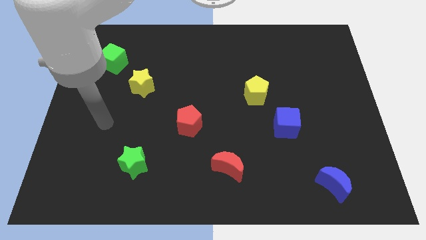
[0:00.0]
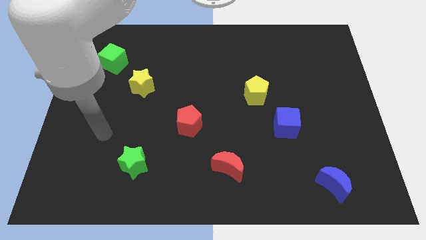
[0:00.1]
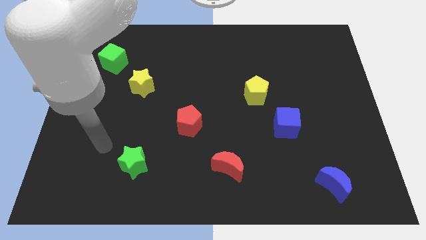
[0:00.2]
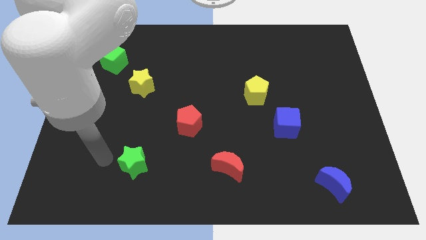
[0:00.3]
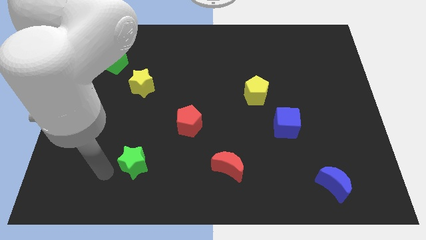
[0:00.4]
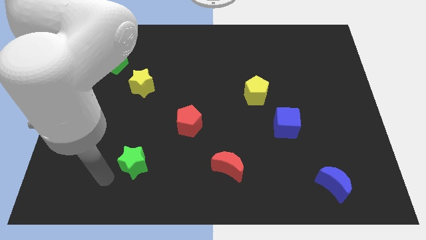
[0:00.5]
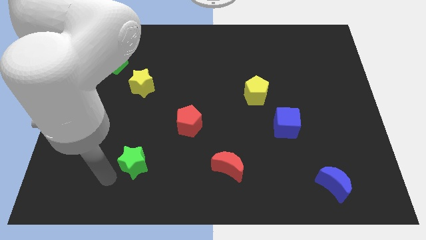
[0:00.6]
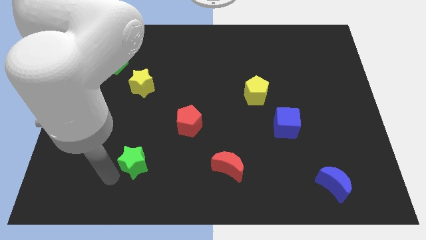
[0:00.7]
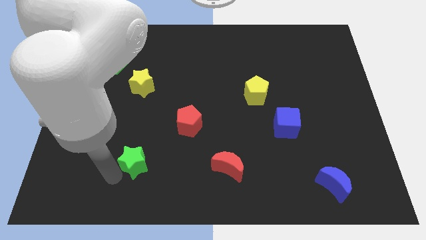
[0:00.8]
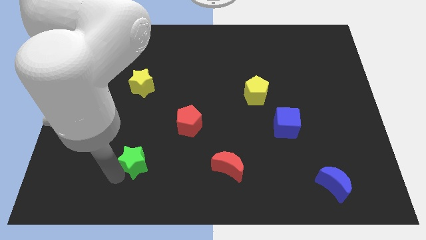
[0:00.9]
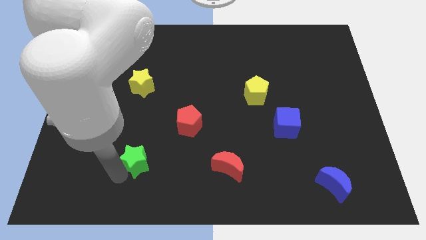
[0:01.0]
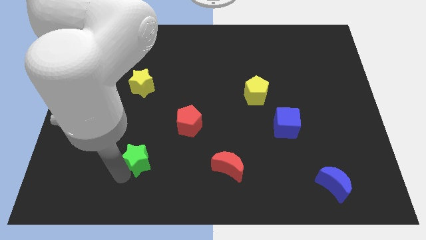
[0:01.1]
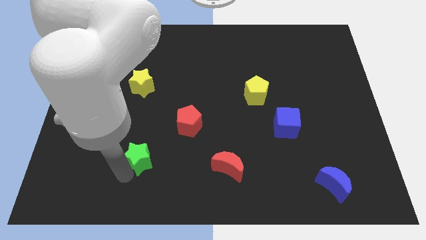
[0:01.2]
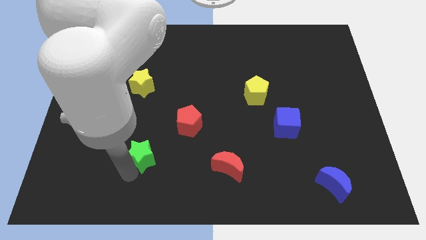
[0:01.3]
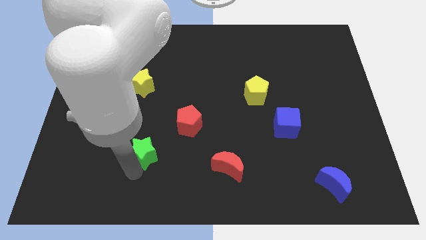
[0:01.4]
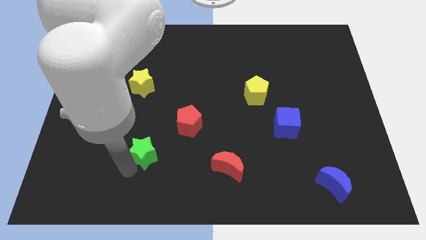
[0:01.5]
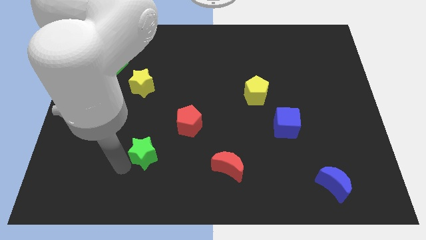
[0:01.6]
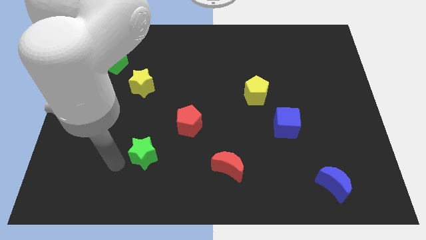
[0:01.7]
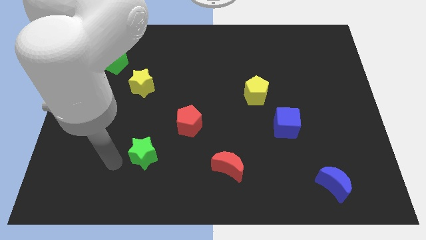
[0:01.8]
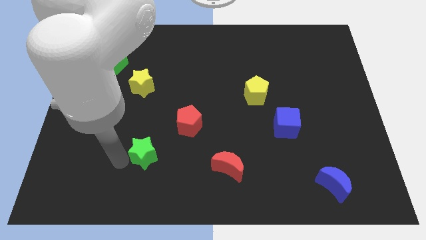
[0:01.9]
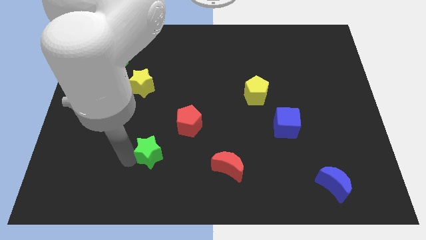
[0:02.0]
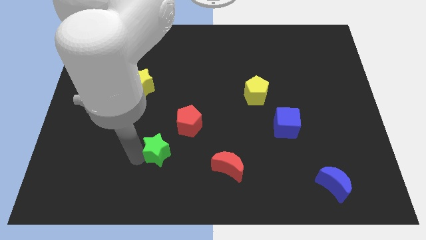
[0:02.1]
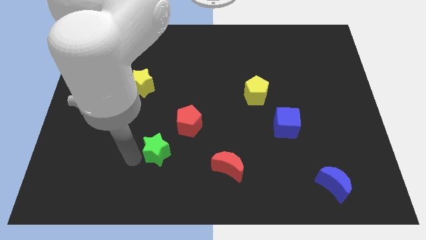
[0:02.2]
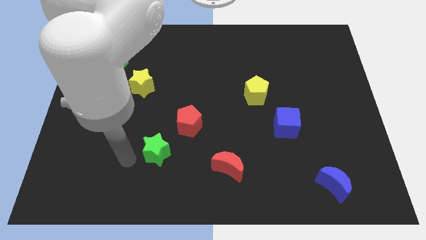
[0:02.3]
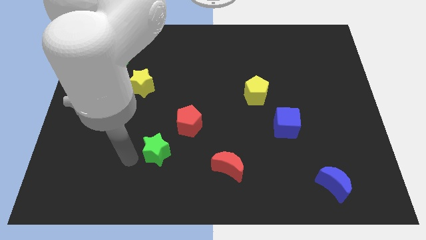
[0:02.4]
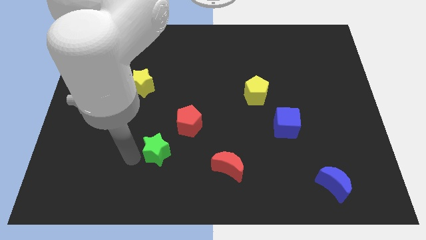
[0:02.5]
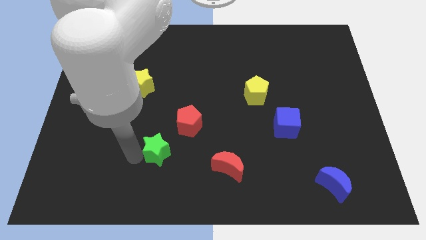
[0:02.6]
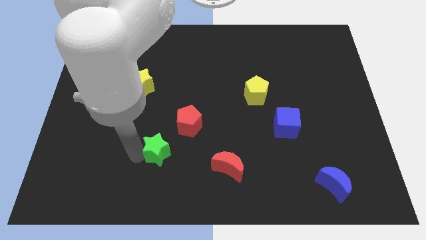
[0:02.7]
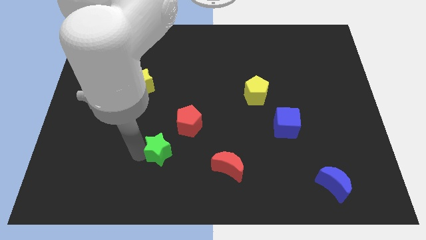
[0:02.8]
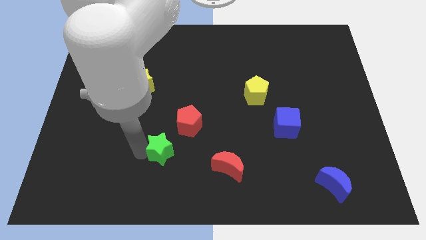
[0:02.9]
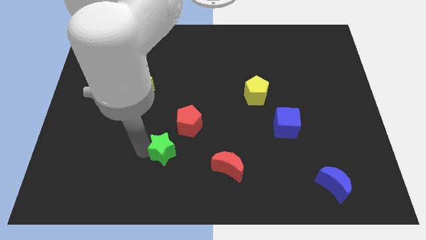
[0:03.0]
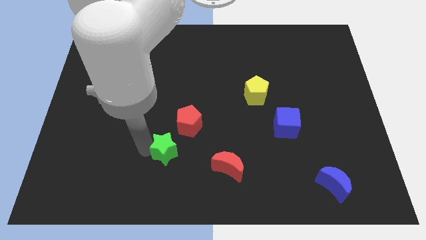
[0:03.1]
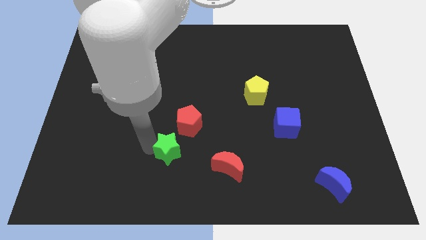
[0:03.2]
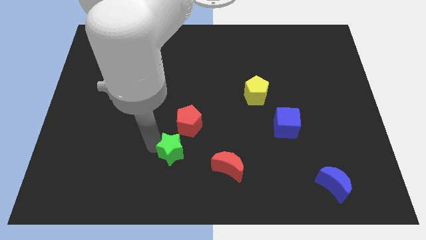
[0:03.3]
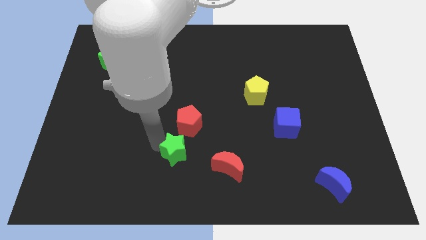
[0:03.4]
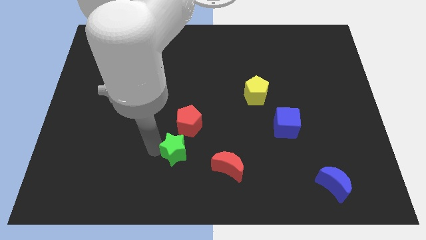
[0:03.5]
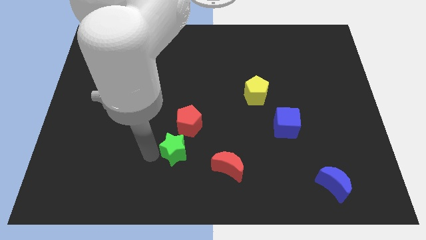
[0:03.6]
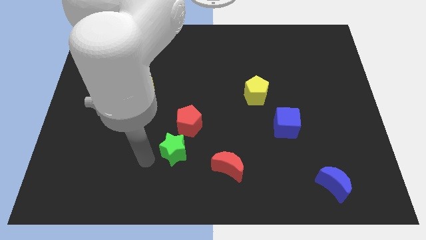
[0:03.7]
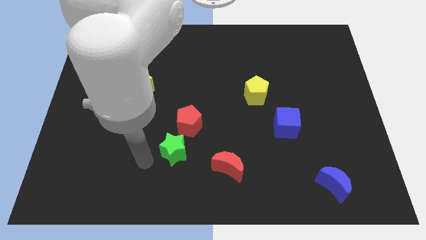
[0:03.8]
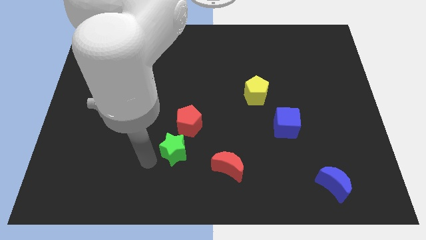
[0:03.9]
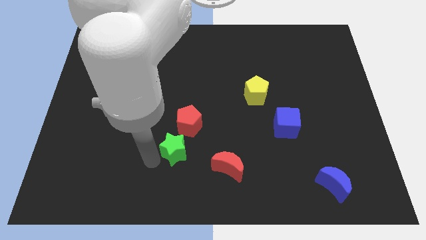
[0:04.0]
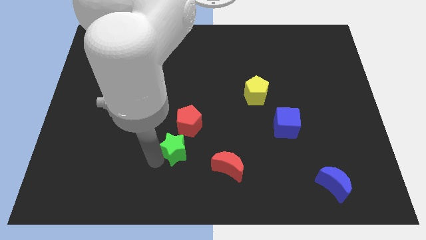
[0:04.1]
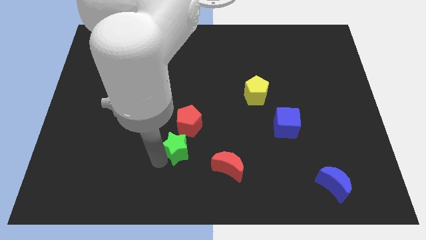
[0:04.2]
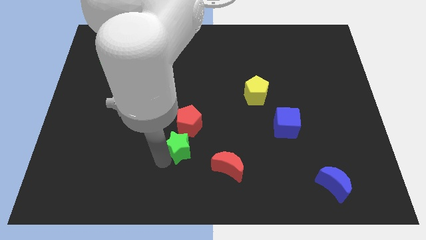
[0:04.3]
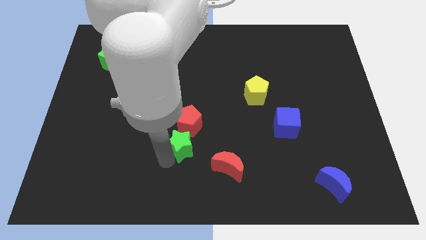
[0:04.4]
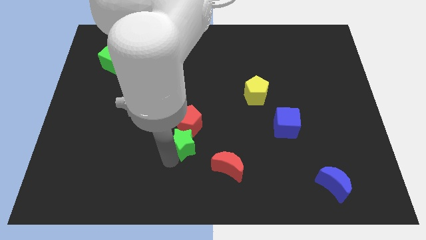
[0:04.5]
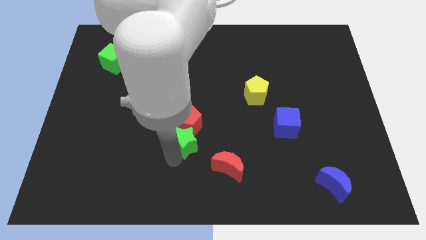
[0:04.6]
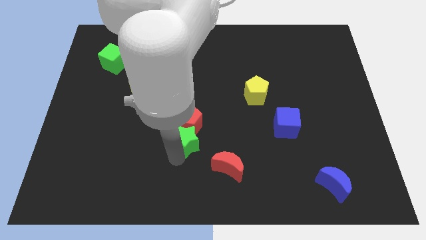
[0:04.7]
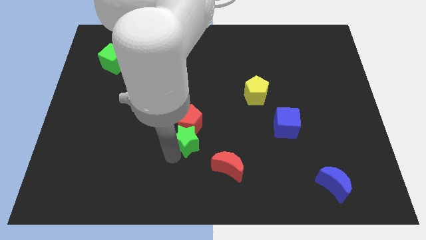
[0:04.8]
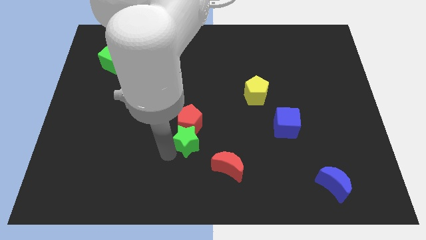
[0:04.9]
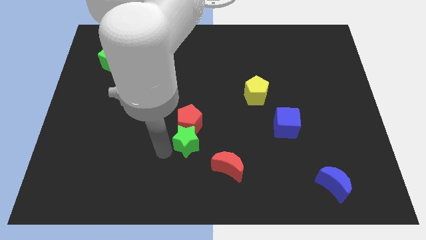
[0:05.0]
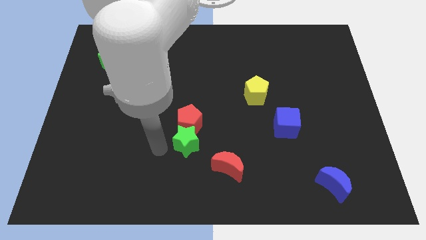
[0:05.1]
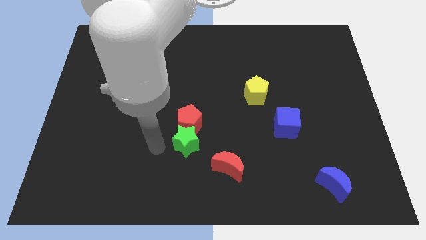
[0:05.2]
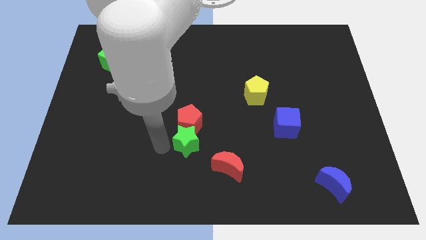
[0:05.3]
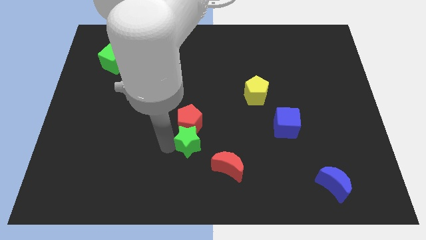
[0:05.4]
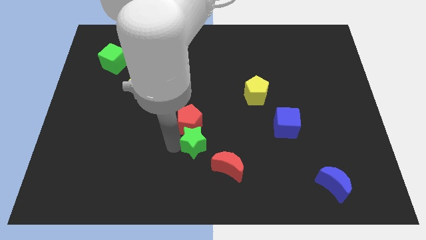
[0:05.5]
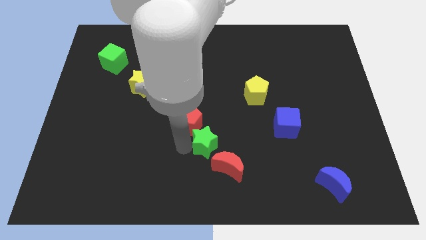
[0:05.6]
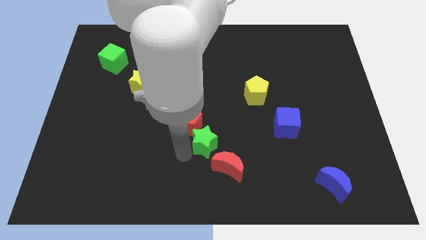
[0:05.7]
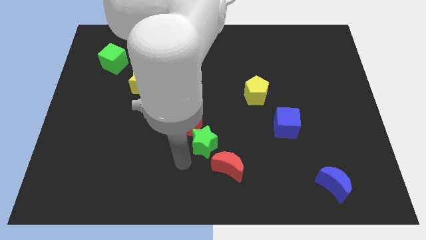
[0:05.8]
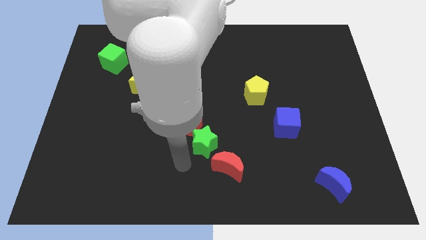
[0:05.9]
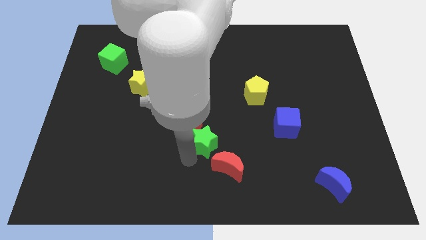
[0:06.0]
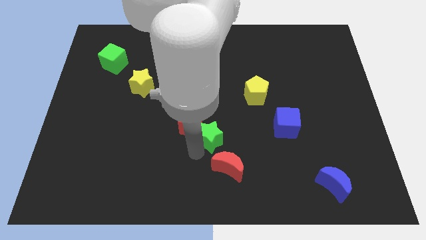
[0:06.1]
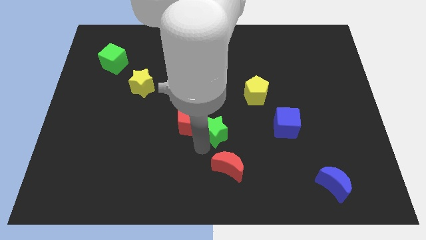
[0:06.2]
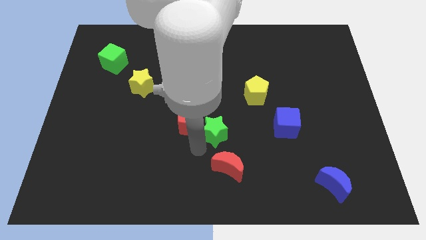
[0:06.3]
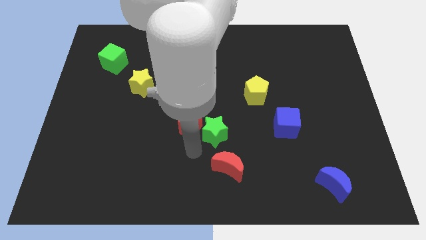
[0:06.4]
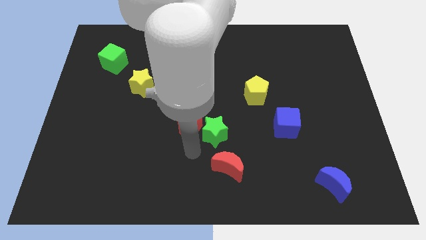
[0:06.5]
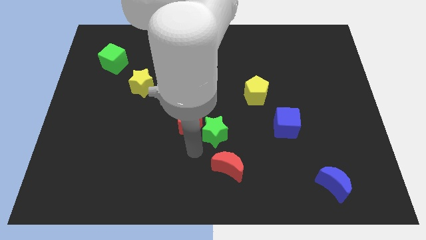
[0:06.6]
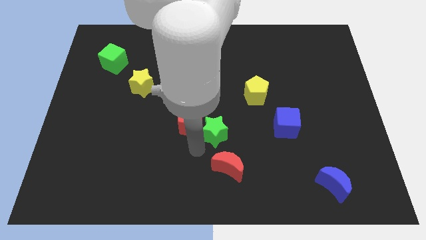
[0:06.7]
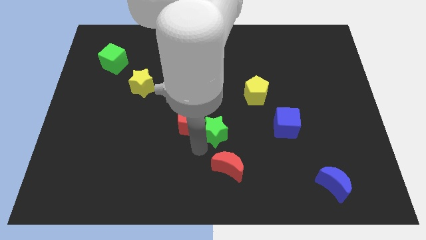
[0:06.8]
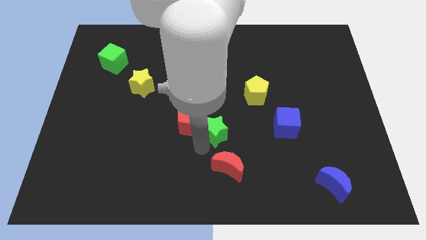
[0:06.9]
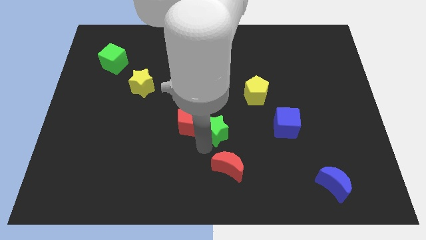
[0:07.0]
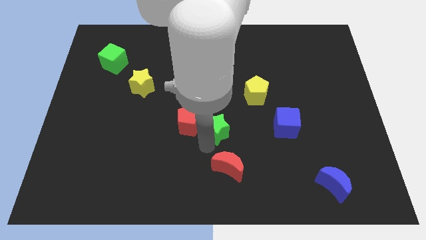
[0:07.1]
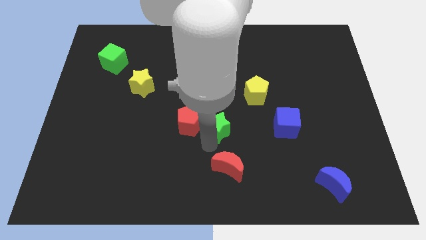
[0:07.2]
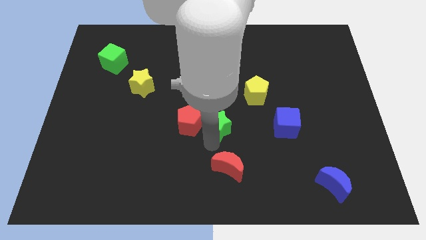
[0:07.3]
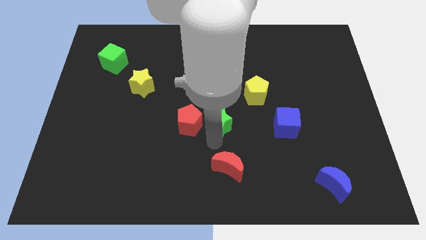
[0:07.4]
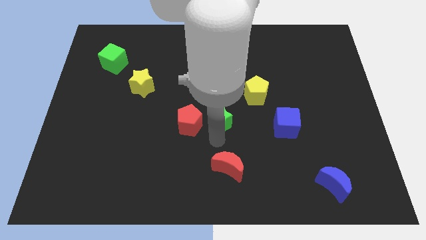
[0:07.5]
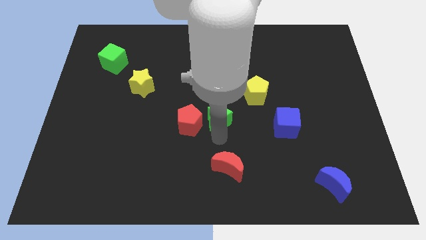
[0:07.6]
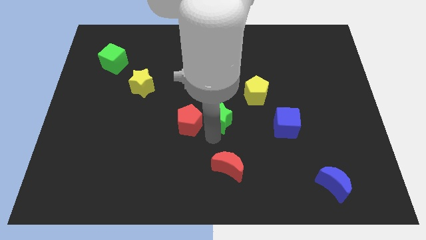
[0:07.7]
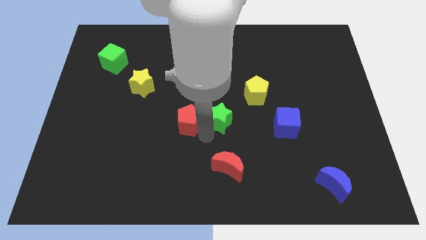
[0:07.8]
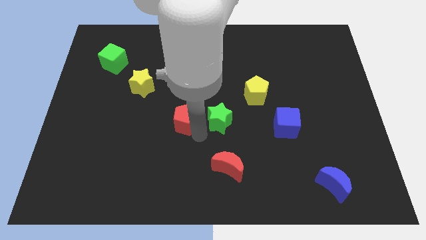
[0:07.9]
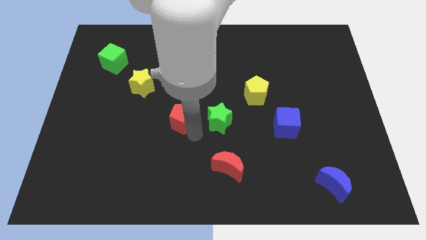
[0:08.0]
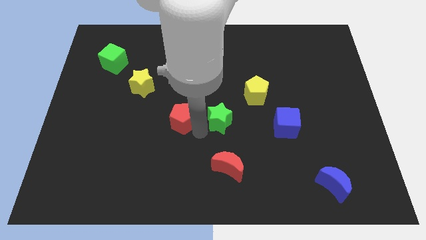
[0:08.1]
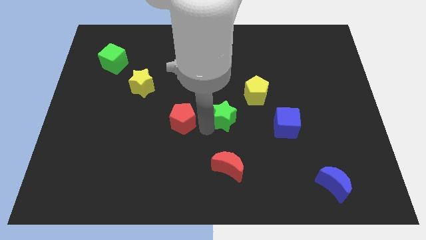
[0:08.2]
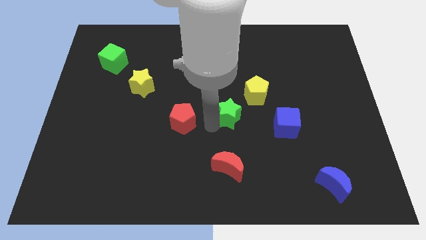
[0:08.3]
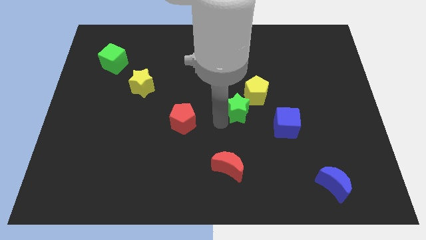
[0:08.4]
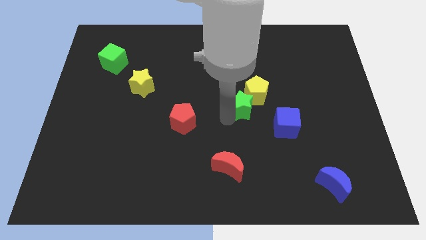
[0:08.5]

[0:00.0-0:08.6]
slide the green star next to the yellow pentagon
